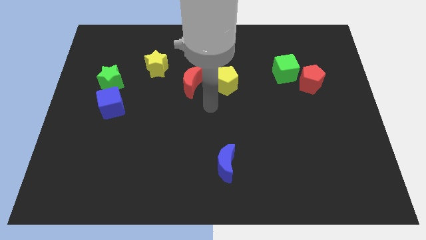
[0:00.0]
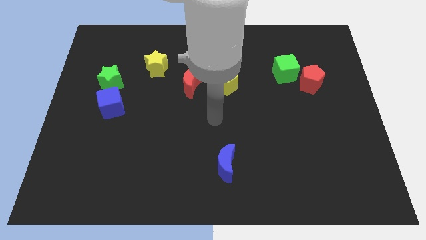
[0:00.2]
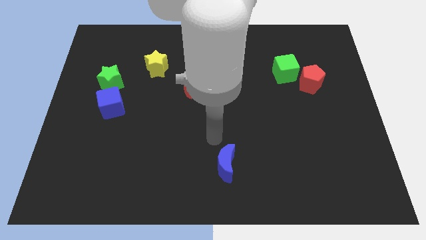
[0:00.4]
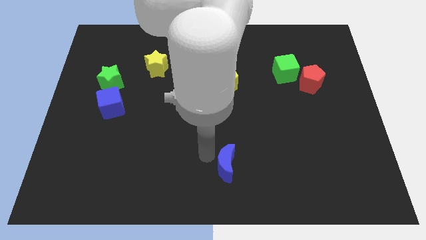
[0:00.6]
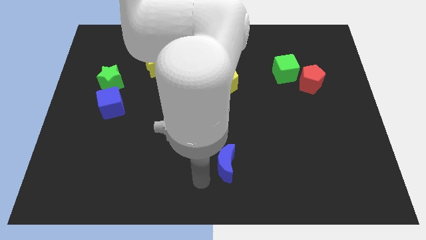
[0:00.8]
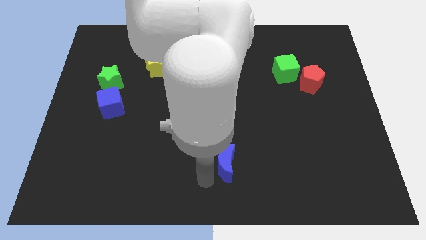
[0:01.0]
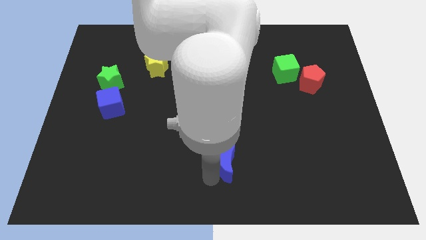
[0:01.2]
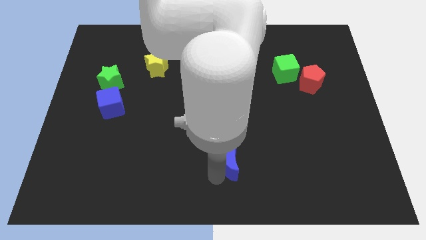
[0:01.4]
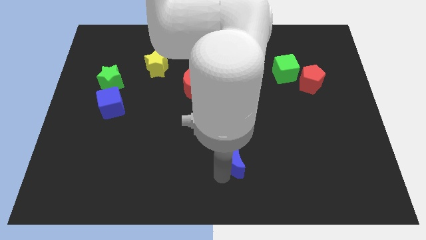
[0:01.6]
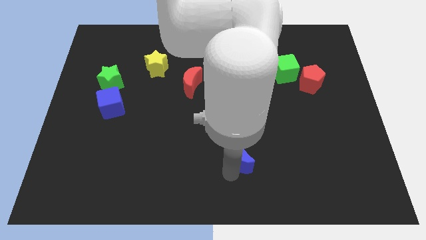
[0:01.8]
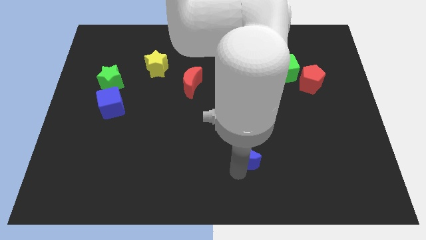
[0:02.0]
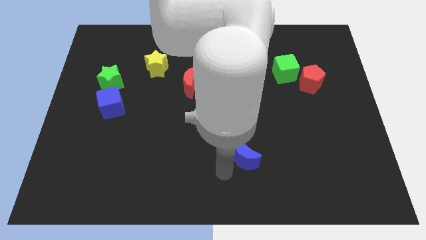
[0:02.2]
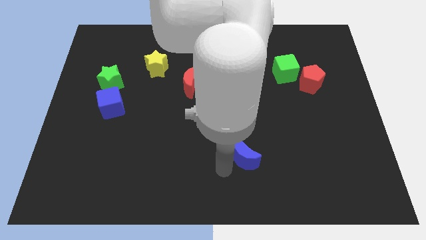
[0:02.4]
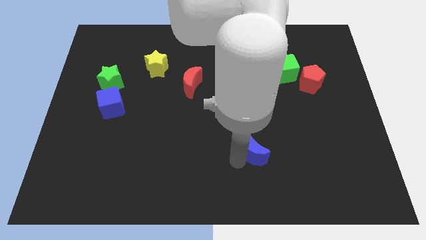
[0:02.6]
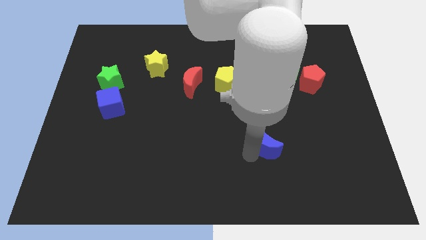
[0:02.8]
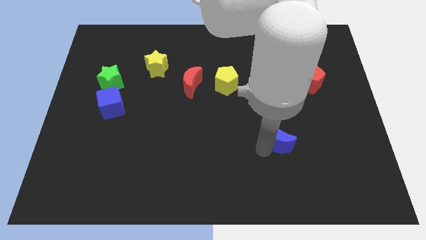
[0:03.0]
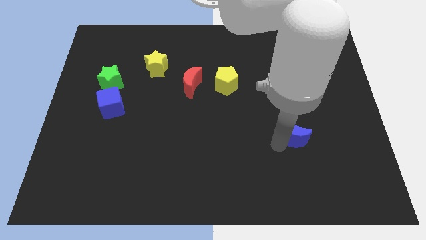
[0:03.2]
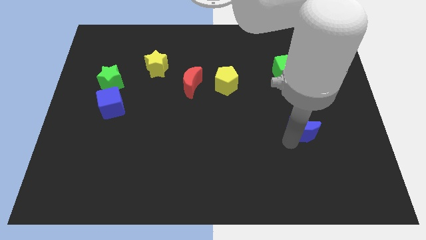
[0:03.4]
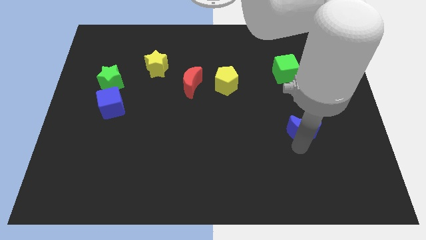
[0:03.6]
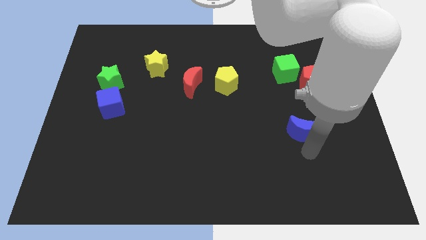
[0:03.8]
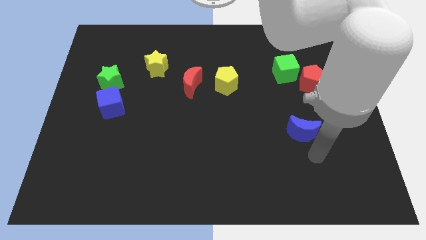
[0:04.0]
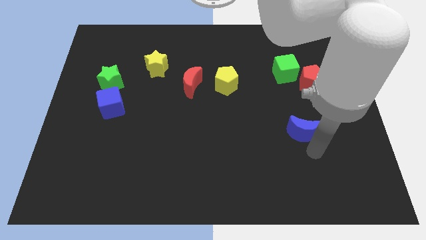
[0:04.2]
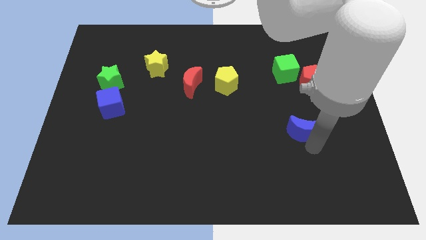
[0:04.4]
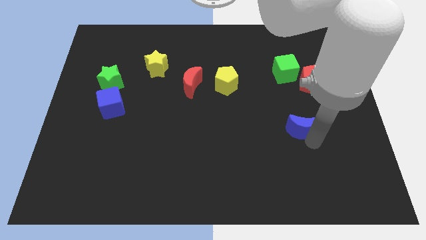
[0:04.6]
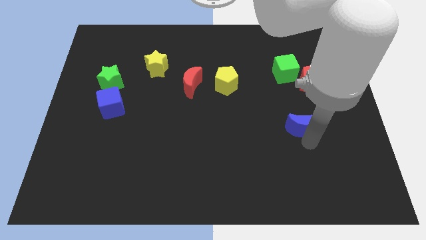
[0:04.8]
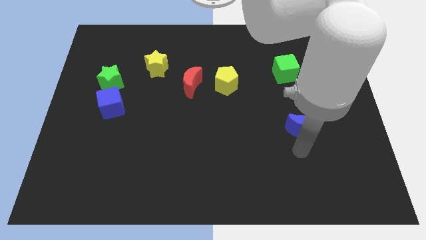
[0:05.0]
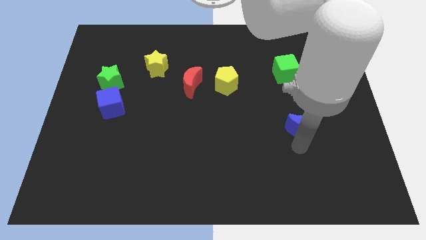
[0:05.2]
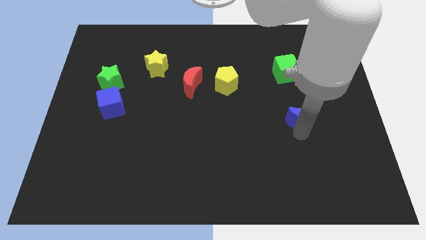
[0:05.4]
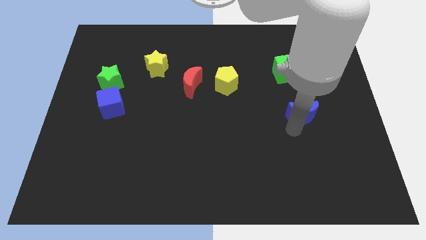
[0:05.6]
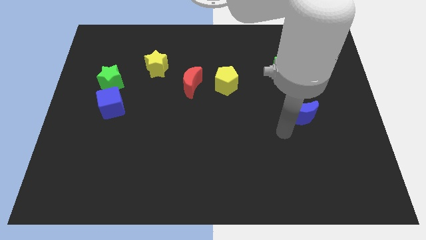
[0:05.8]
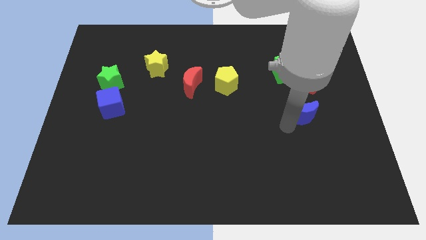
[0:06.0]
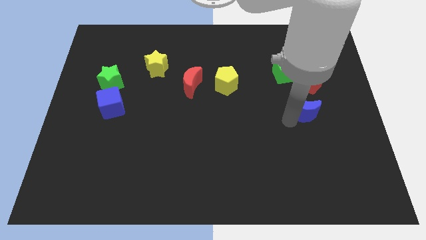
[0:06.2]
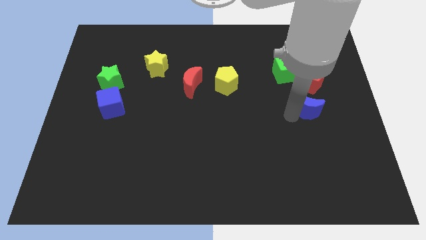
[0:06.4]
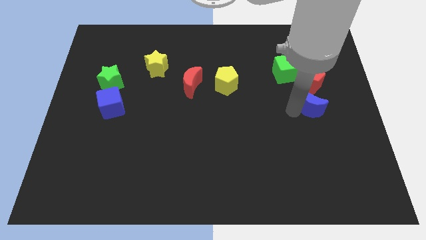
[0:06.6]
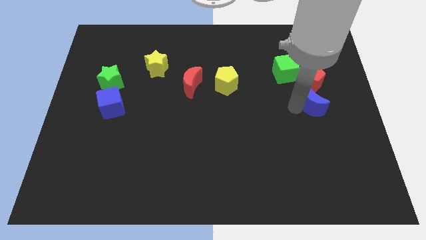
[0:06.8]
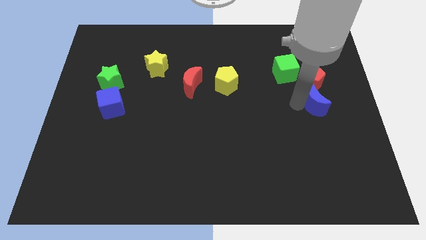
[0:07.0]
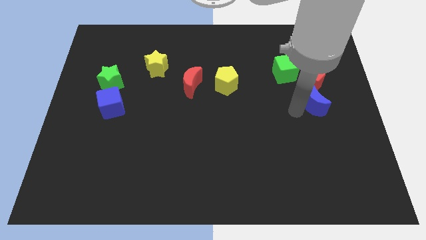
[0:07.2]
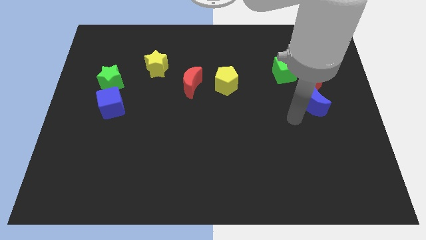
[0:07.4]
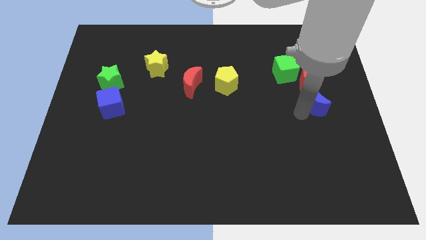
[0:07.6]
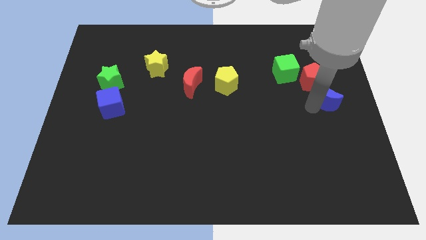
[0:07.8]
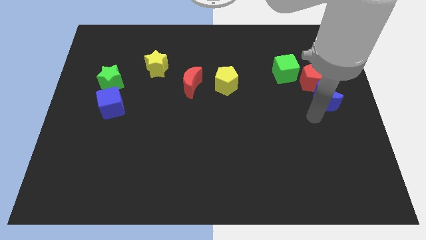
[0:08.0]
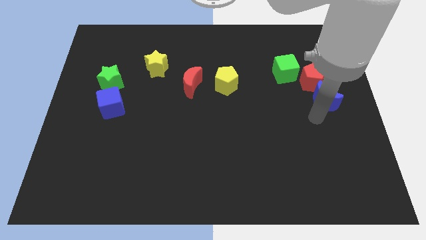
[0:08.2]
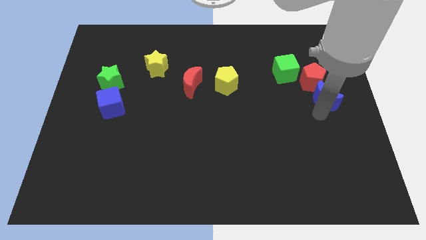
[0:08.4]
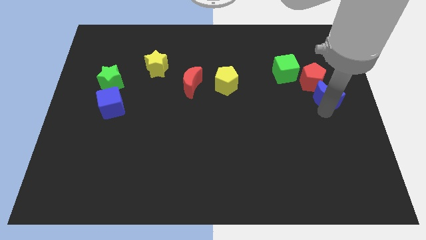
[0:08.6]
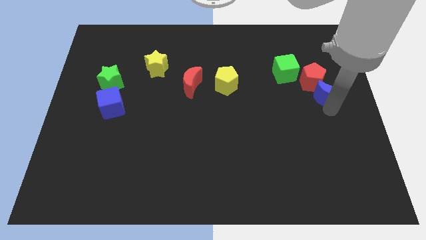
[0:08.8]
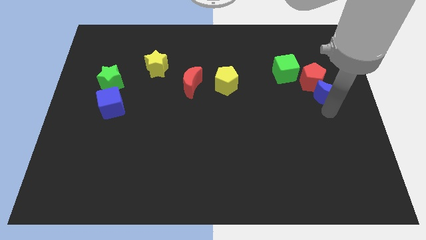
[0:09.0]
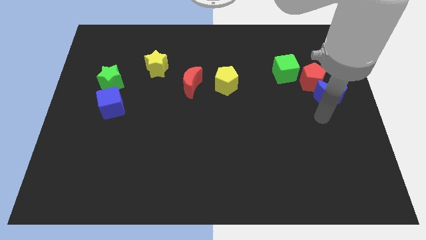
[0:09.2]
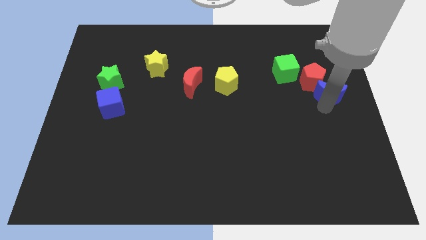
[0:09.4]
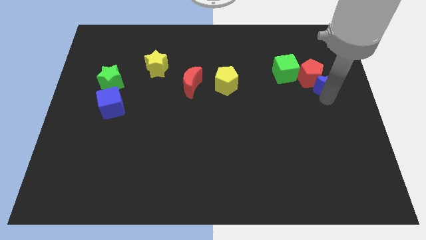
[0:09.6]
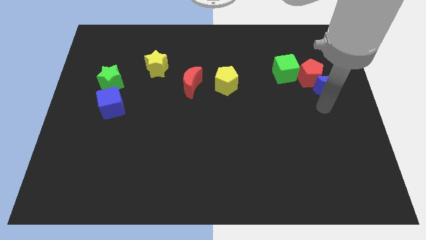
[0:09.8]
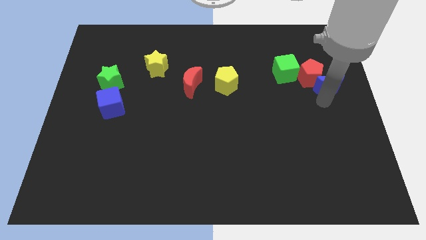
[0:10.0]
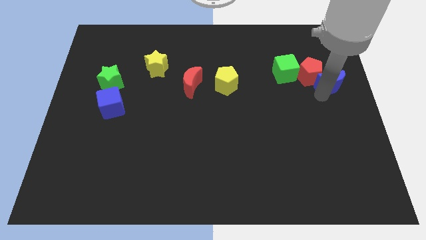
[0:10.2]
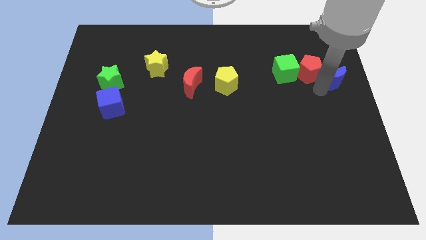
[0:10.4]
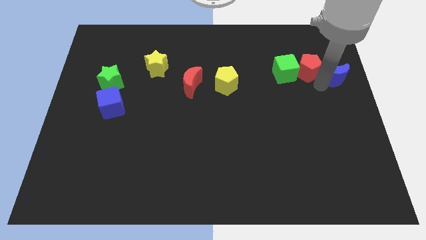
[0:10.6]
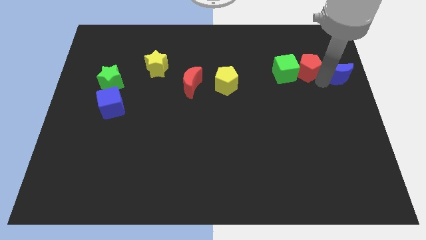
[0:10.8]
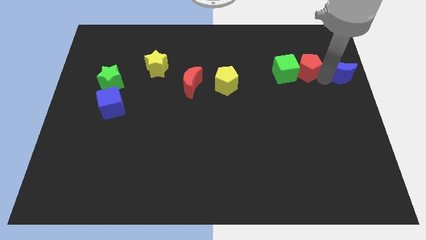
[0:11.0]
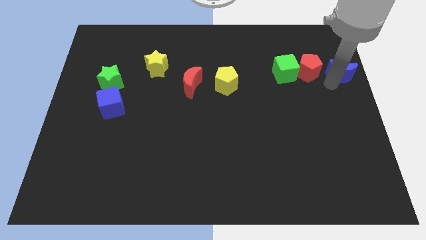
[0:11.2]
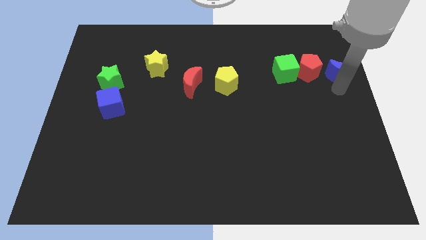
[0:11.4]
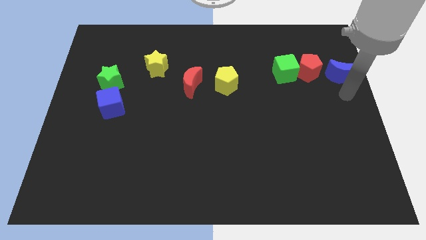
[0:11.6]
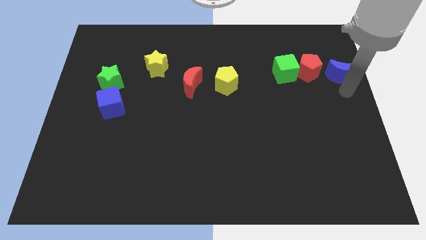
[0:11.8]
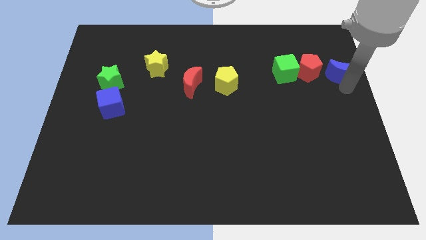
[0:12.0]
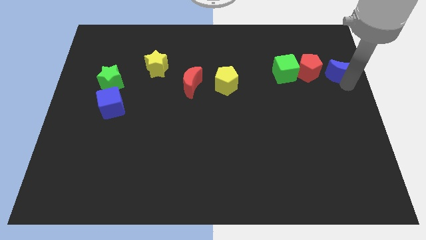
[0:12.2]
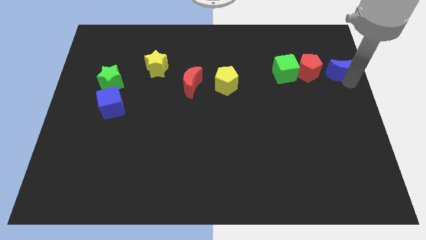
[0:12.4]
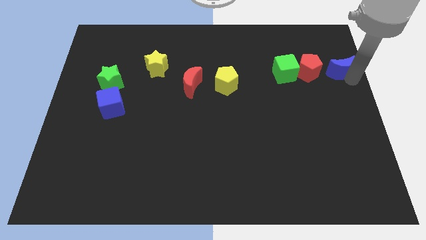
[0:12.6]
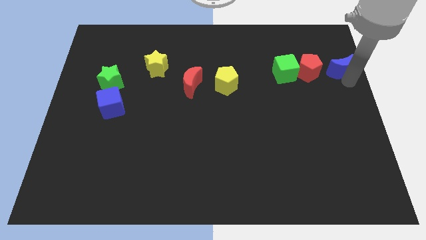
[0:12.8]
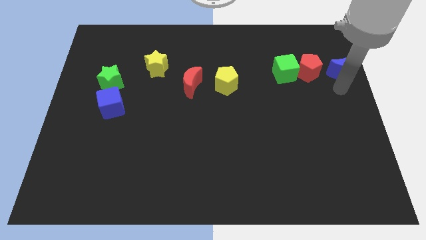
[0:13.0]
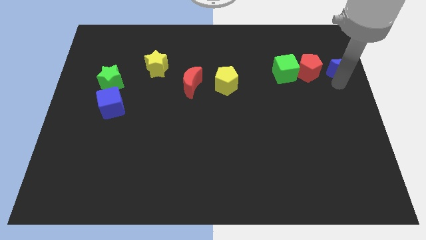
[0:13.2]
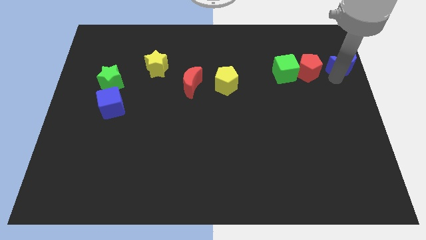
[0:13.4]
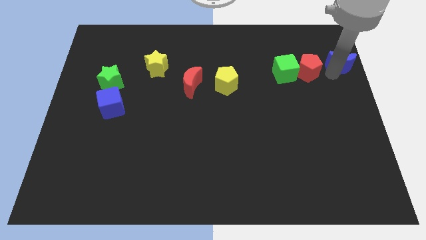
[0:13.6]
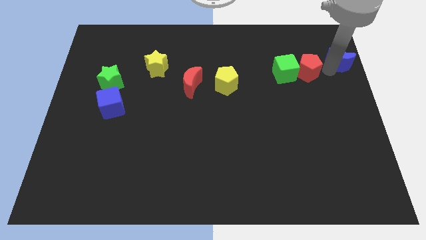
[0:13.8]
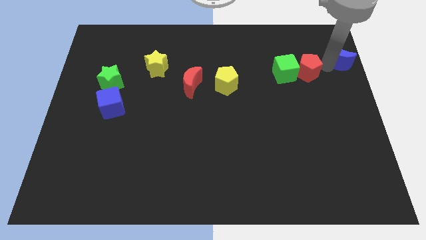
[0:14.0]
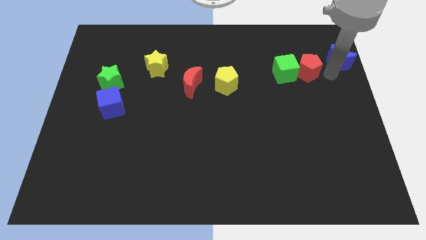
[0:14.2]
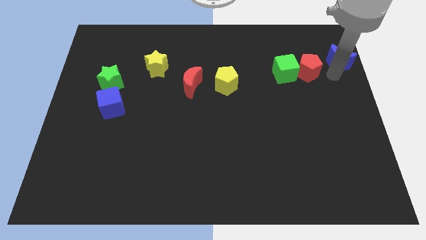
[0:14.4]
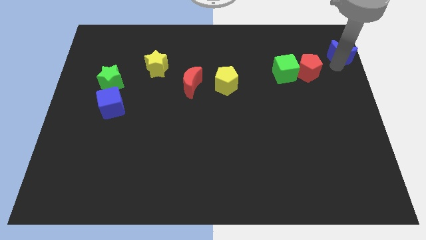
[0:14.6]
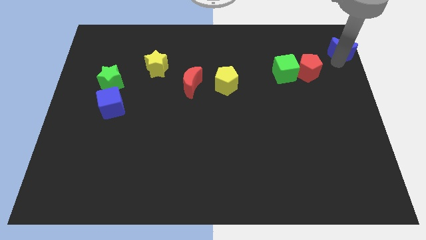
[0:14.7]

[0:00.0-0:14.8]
slide the blue moon to the top right corner
